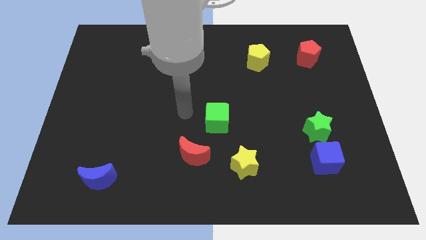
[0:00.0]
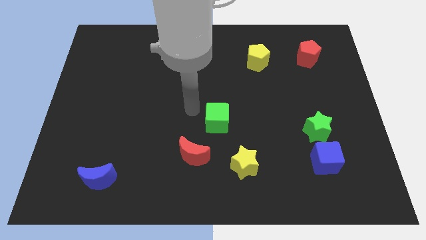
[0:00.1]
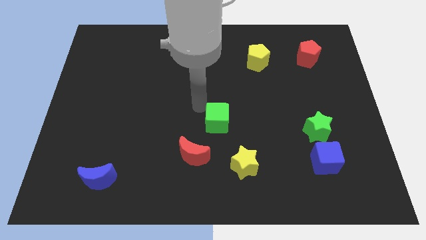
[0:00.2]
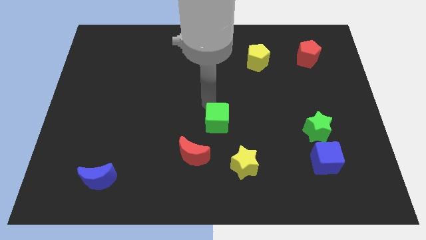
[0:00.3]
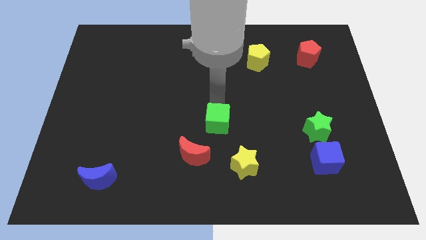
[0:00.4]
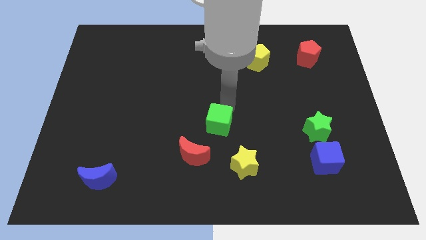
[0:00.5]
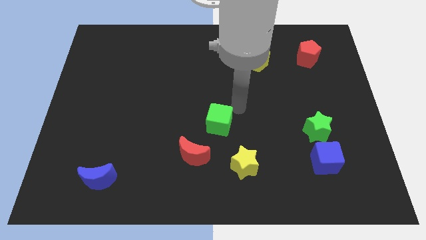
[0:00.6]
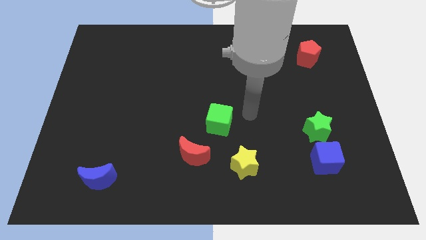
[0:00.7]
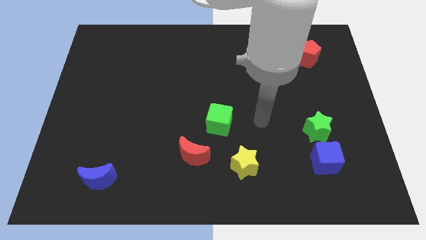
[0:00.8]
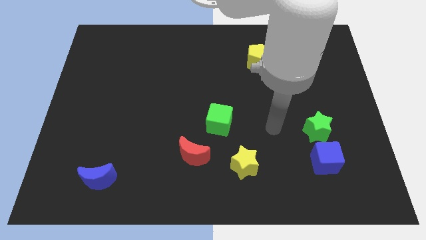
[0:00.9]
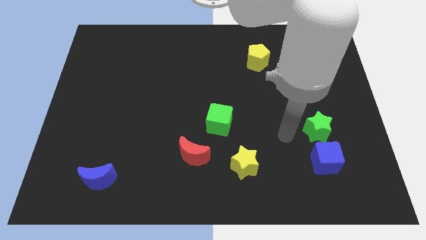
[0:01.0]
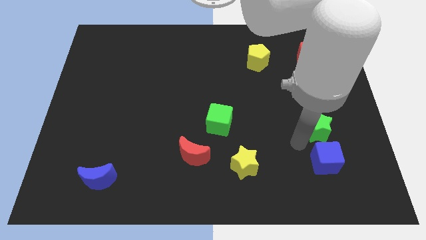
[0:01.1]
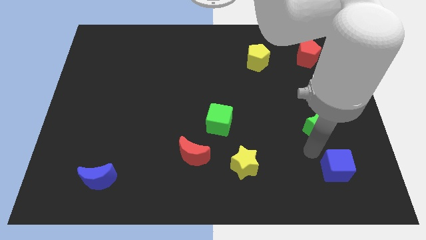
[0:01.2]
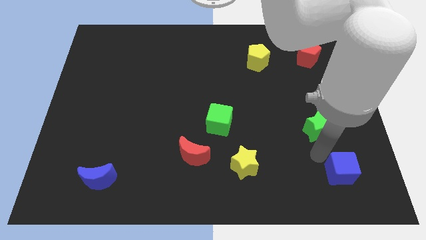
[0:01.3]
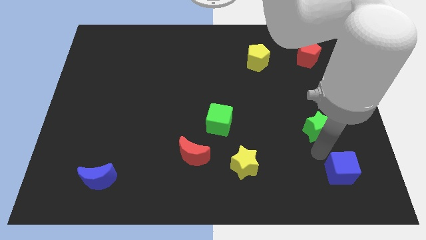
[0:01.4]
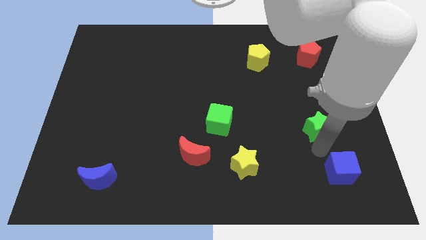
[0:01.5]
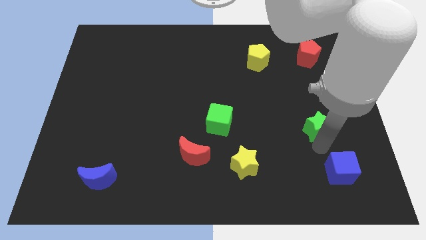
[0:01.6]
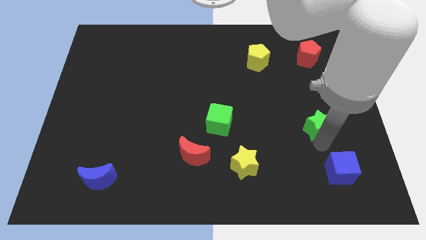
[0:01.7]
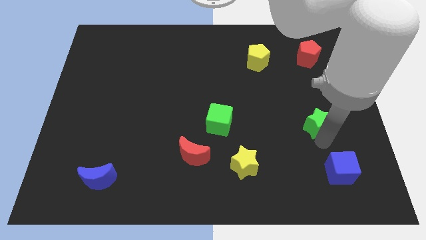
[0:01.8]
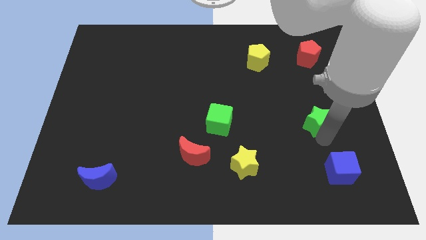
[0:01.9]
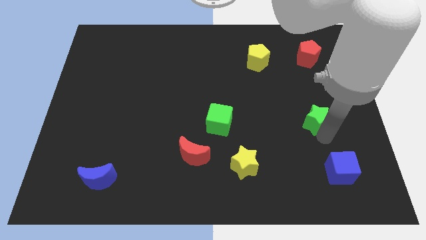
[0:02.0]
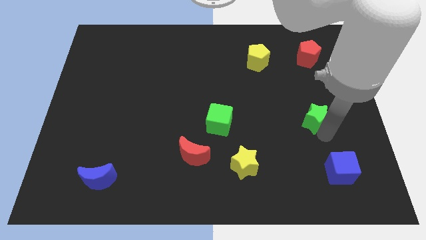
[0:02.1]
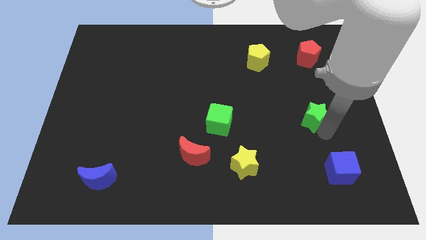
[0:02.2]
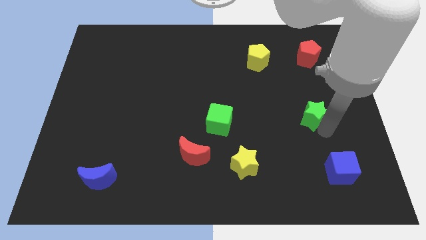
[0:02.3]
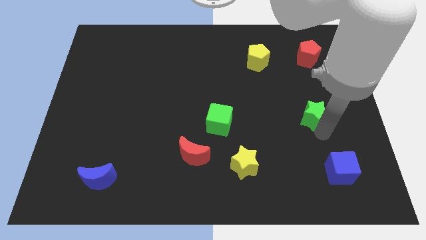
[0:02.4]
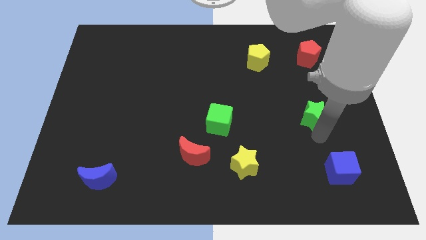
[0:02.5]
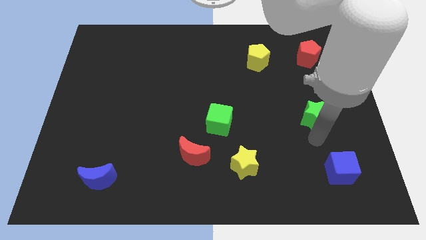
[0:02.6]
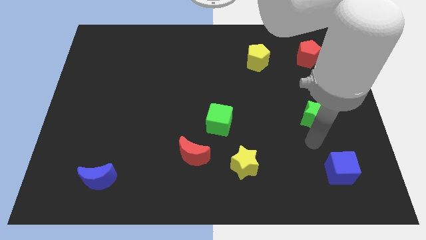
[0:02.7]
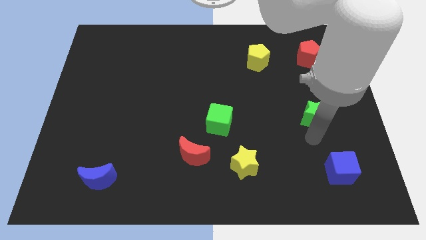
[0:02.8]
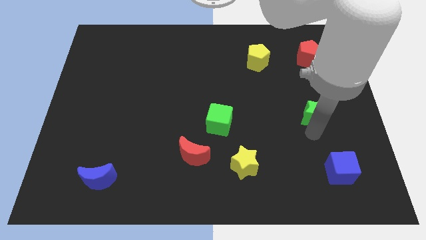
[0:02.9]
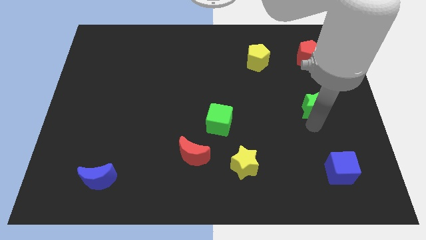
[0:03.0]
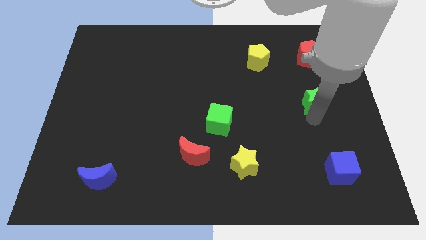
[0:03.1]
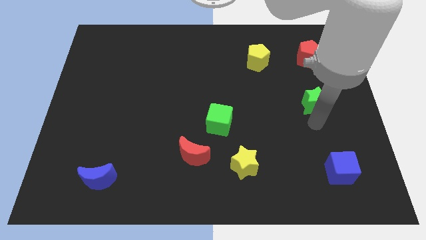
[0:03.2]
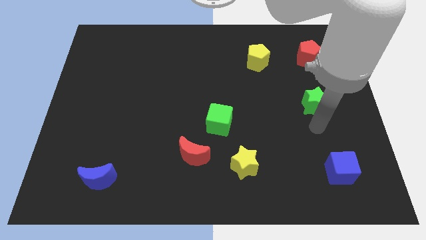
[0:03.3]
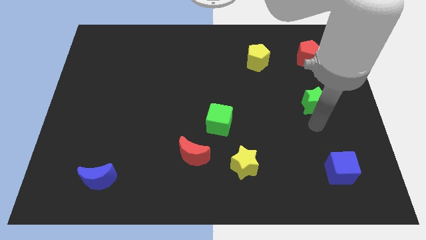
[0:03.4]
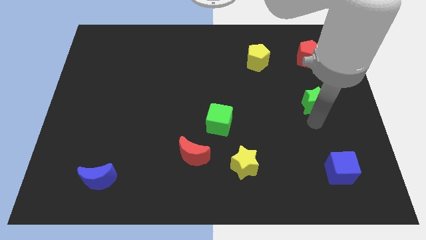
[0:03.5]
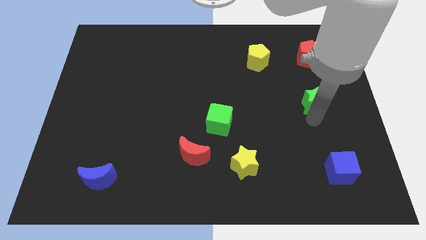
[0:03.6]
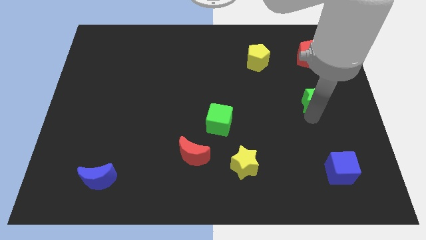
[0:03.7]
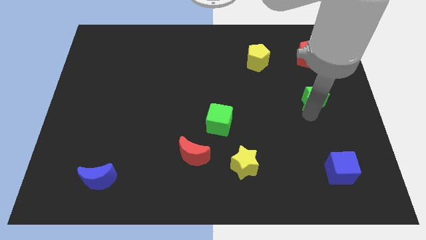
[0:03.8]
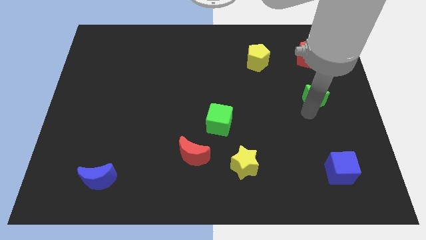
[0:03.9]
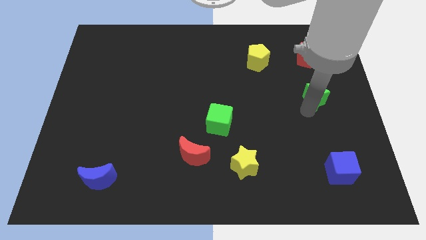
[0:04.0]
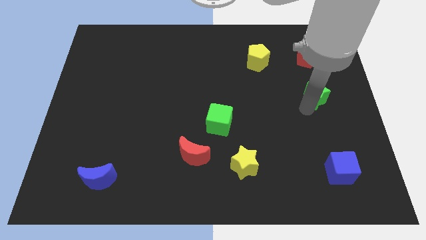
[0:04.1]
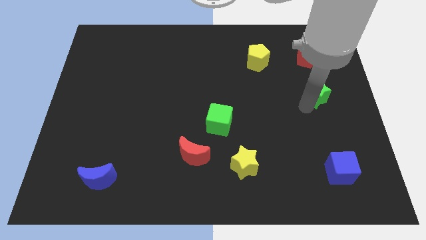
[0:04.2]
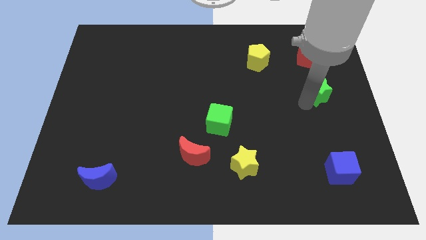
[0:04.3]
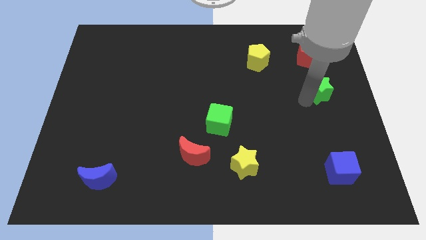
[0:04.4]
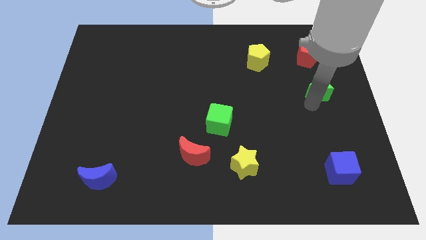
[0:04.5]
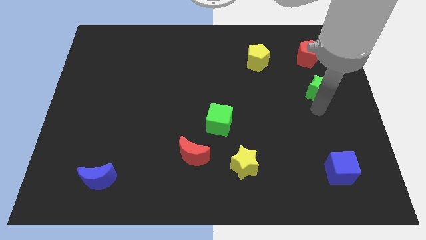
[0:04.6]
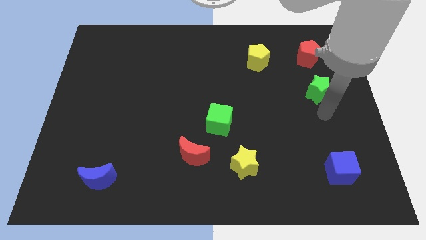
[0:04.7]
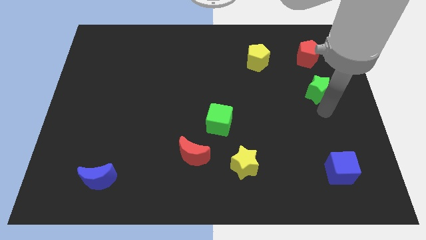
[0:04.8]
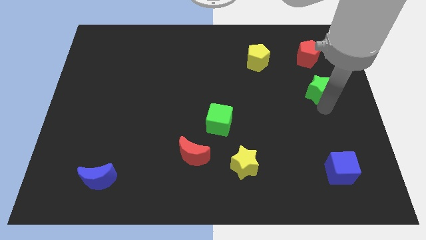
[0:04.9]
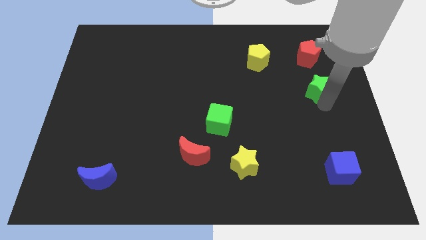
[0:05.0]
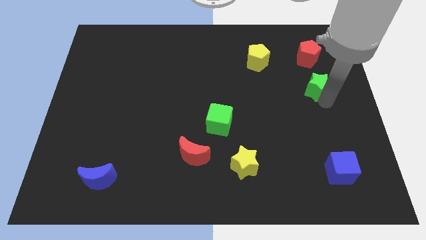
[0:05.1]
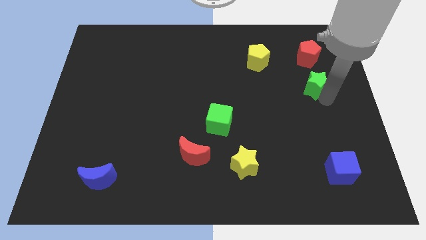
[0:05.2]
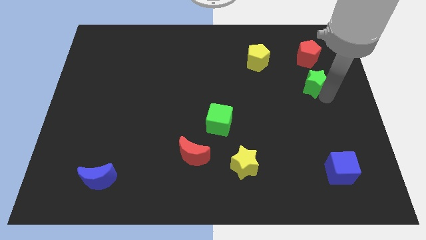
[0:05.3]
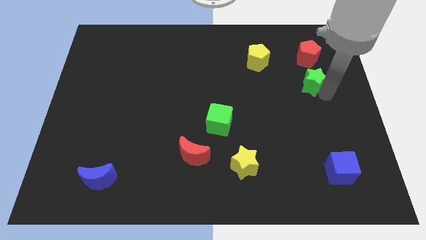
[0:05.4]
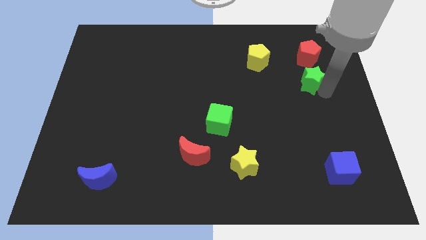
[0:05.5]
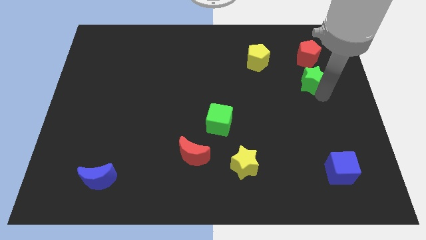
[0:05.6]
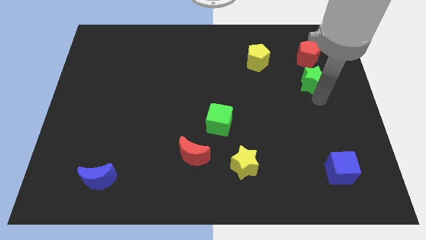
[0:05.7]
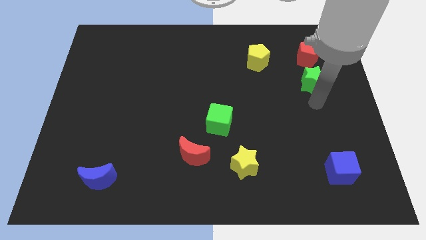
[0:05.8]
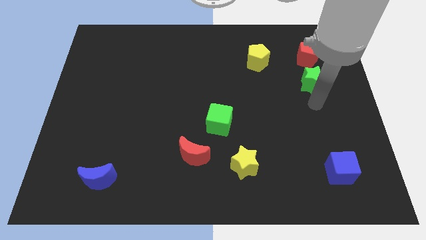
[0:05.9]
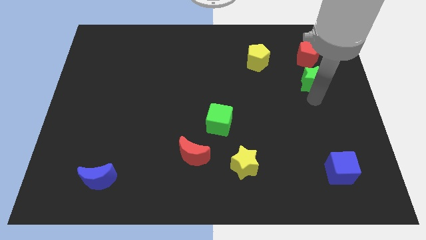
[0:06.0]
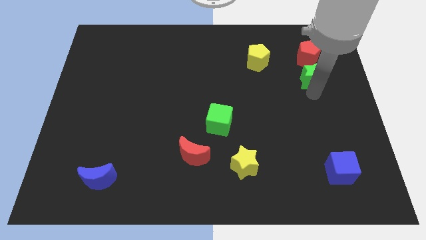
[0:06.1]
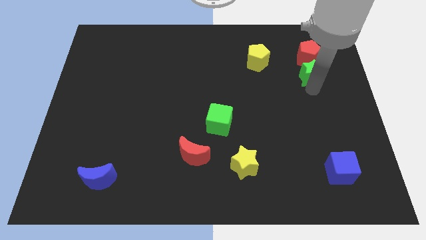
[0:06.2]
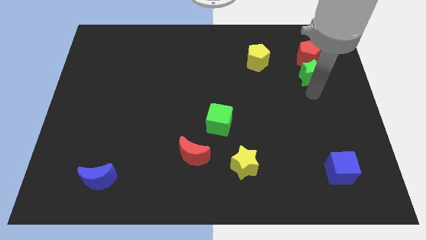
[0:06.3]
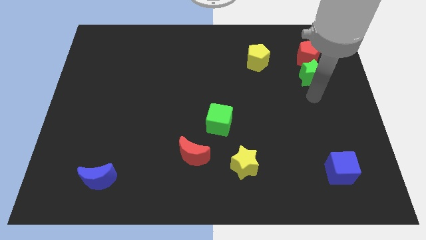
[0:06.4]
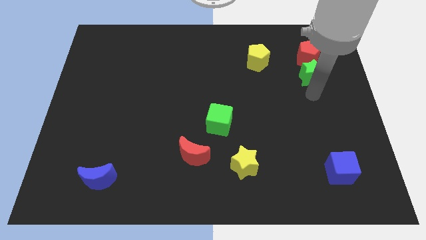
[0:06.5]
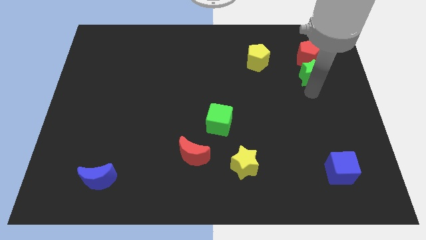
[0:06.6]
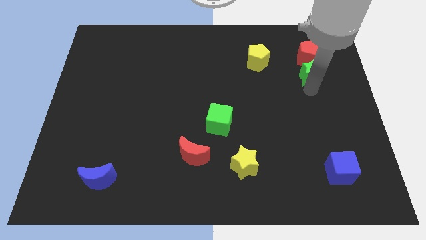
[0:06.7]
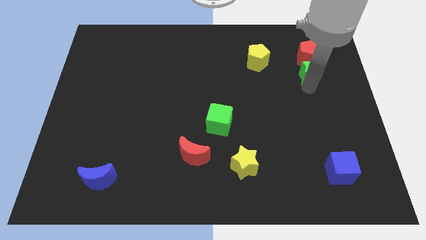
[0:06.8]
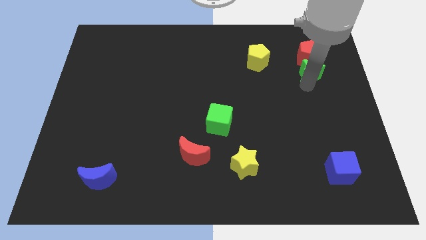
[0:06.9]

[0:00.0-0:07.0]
put the green star to the red pentagon
